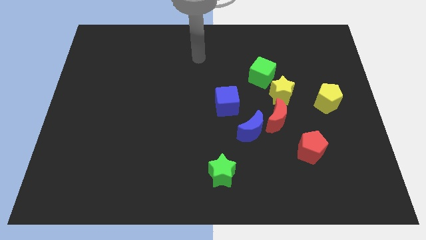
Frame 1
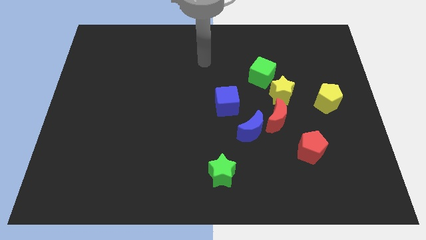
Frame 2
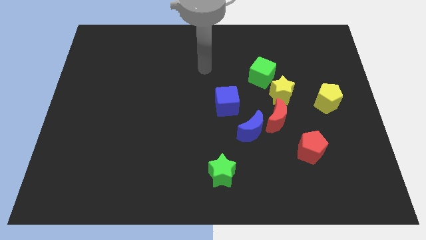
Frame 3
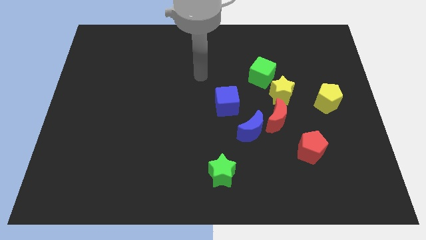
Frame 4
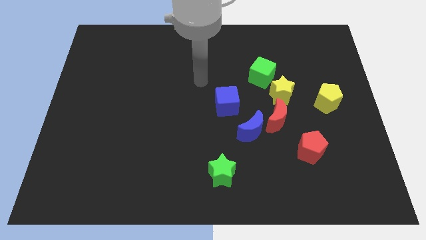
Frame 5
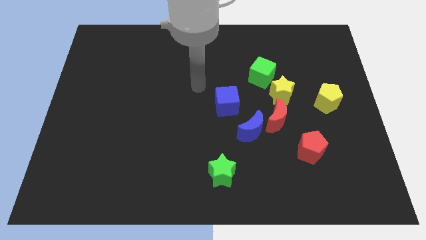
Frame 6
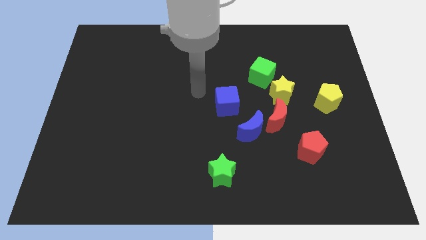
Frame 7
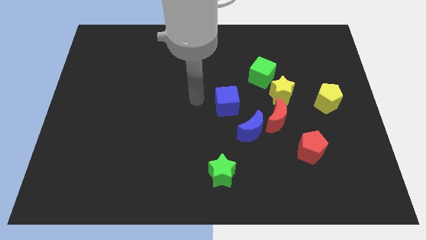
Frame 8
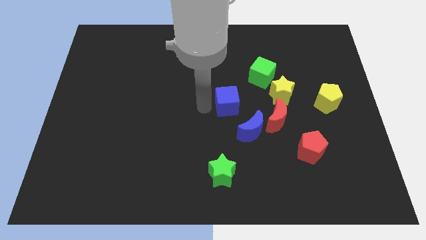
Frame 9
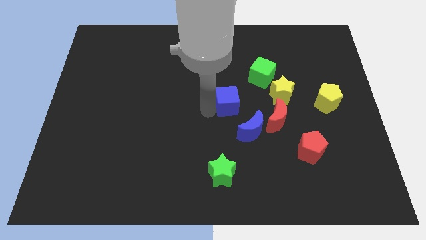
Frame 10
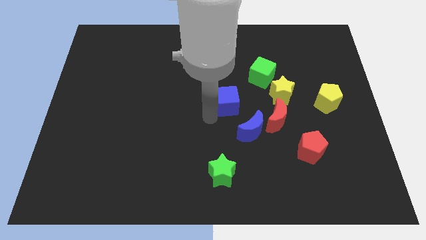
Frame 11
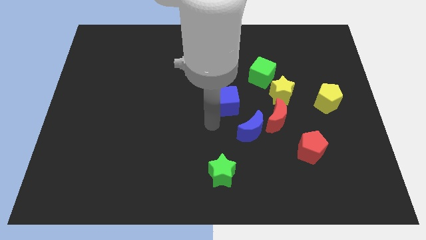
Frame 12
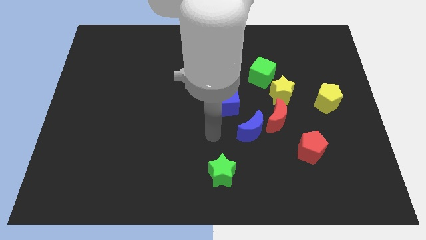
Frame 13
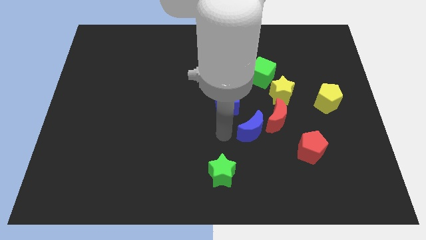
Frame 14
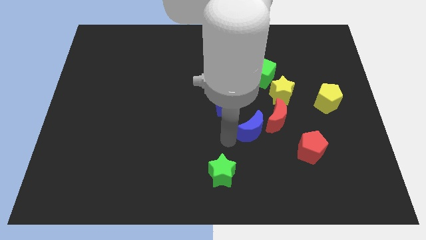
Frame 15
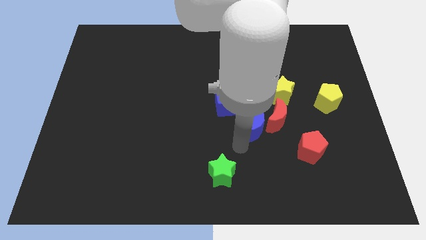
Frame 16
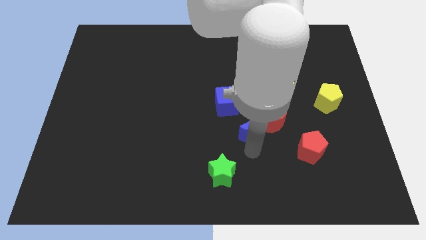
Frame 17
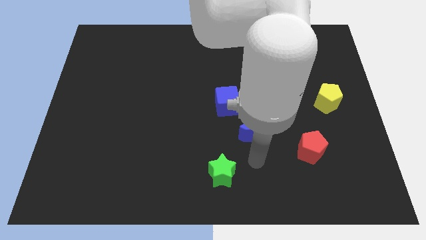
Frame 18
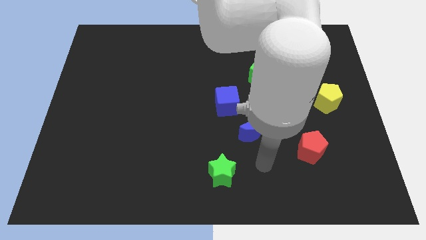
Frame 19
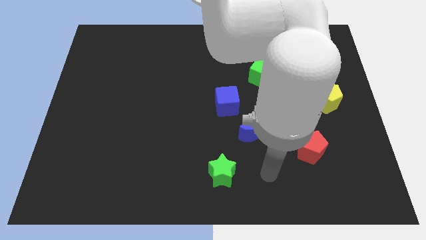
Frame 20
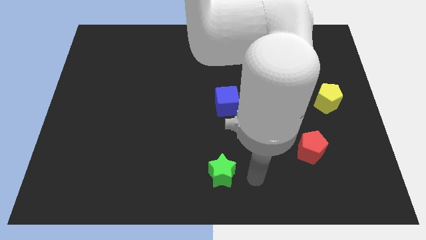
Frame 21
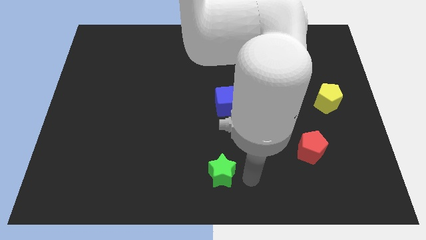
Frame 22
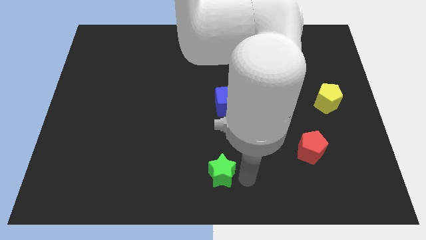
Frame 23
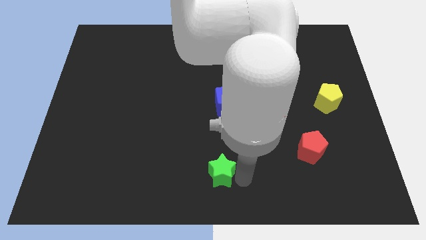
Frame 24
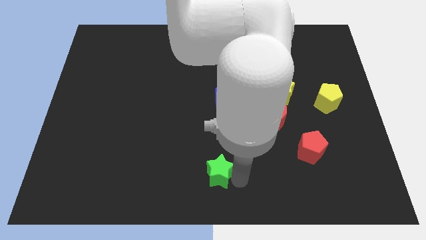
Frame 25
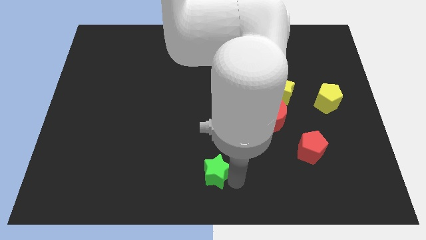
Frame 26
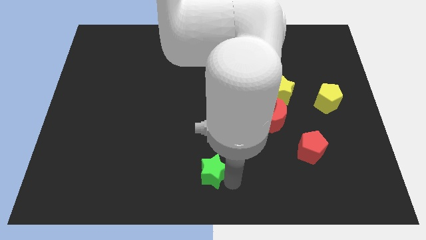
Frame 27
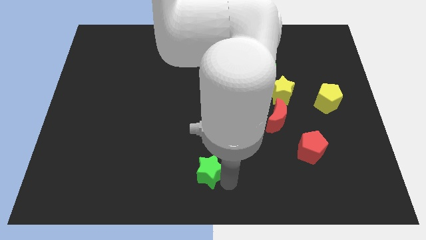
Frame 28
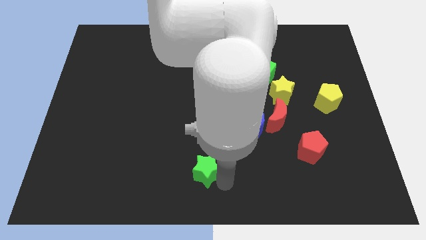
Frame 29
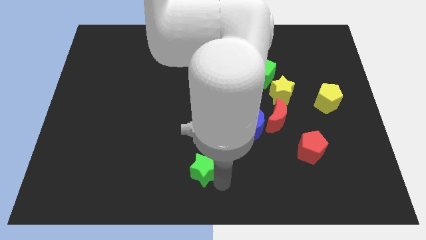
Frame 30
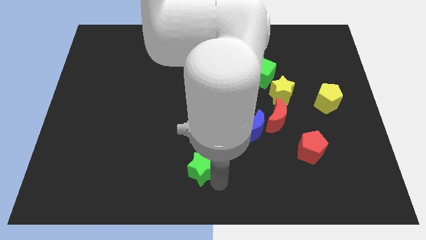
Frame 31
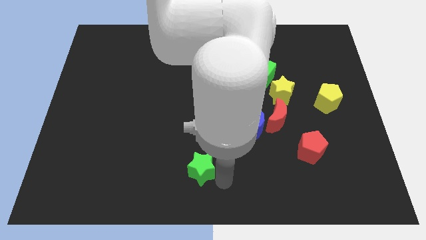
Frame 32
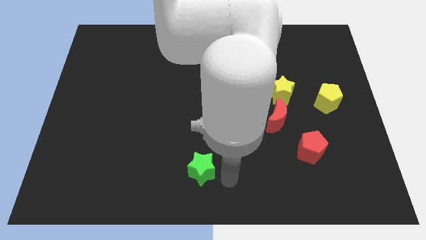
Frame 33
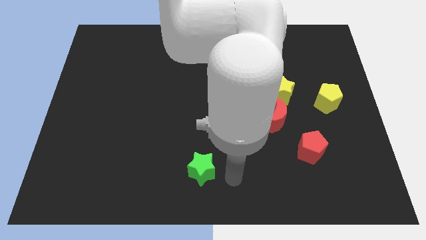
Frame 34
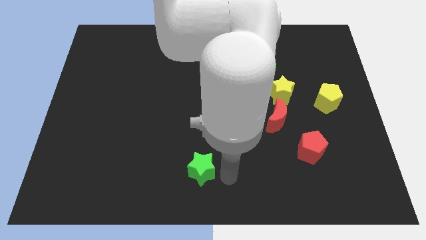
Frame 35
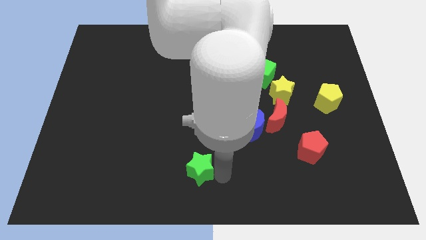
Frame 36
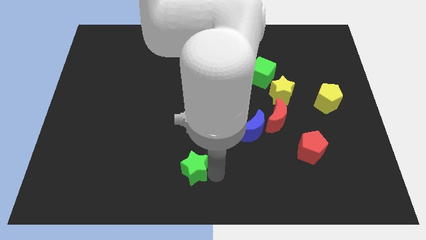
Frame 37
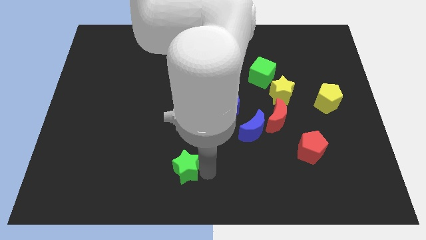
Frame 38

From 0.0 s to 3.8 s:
slide the green star slightly to the left

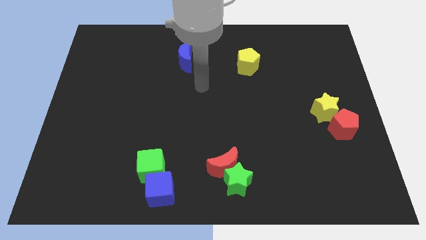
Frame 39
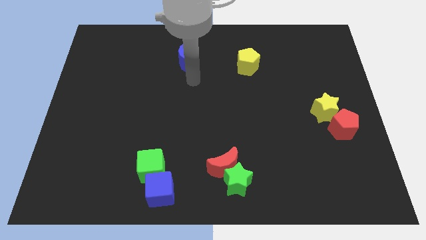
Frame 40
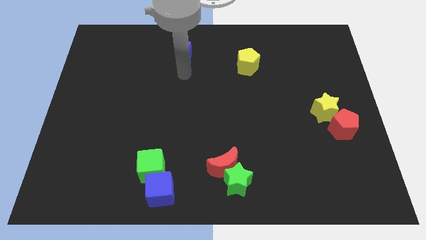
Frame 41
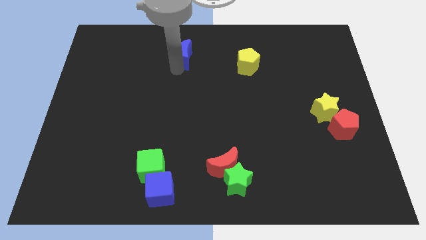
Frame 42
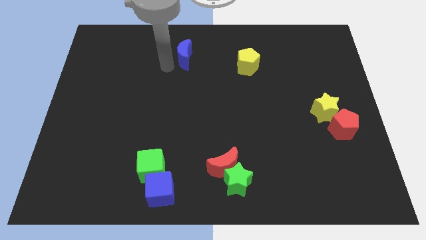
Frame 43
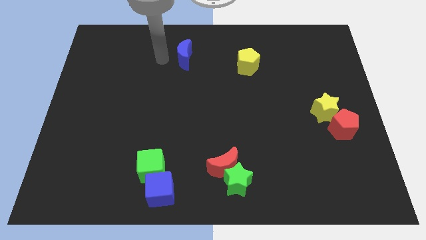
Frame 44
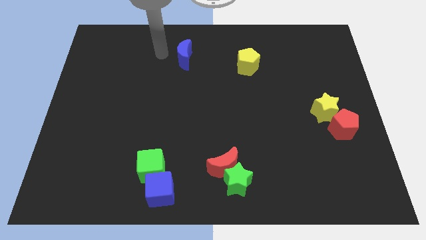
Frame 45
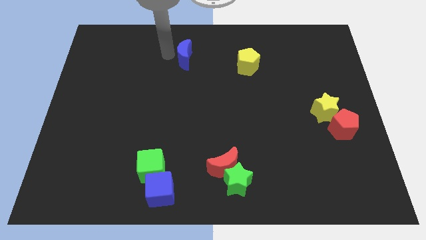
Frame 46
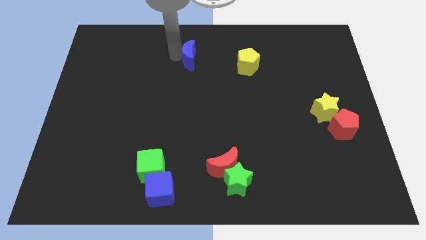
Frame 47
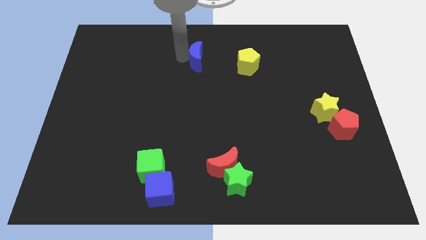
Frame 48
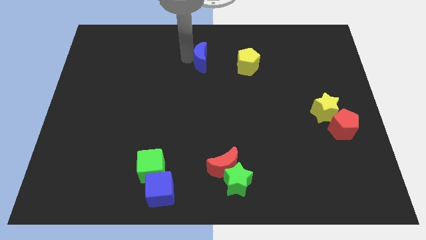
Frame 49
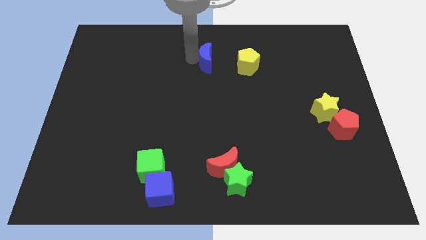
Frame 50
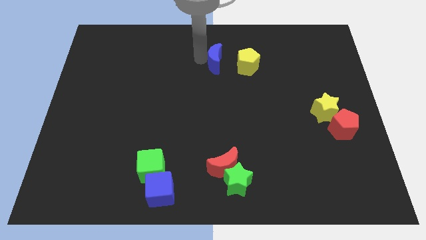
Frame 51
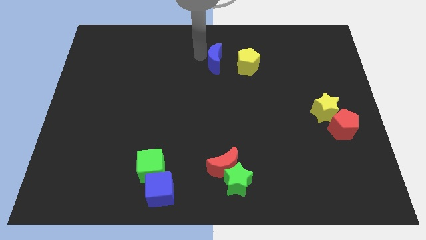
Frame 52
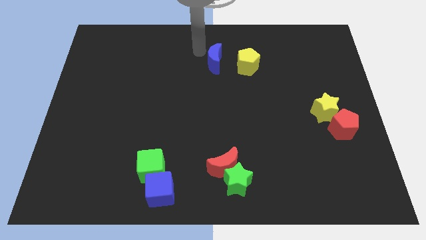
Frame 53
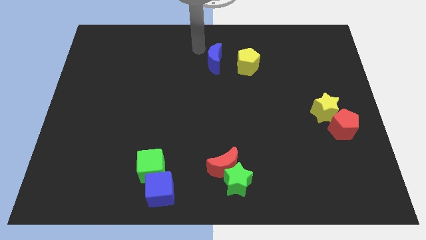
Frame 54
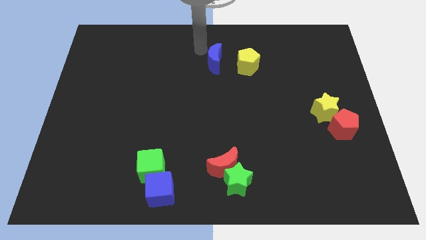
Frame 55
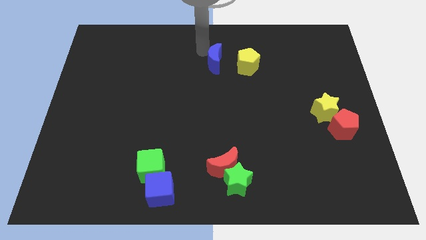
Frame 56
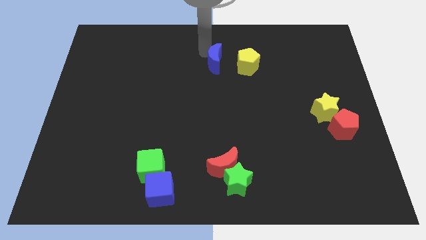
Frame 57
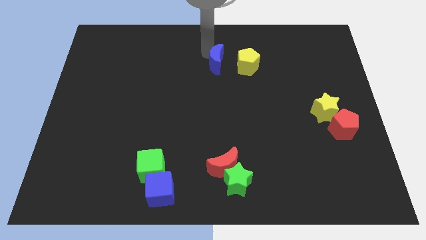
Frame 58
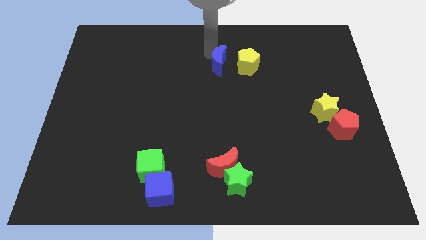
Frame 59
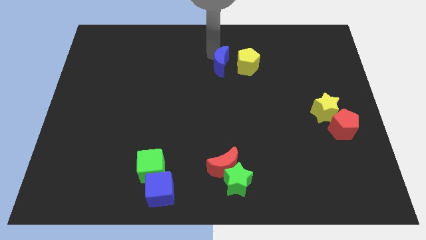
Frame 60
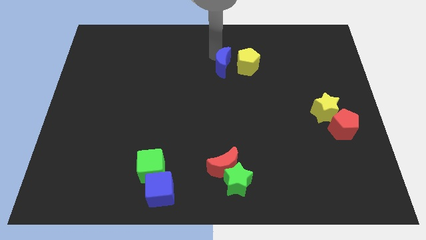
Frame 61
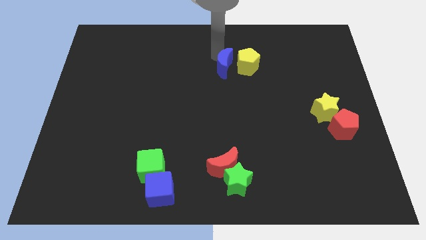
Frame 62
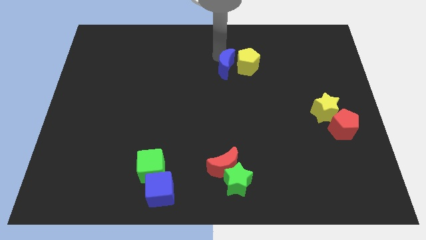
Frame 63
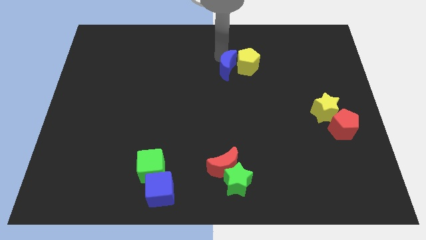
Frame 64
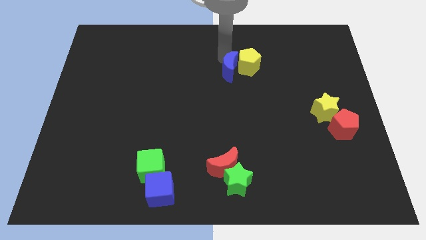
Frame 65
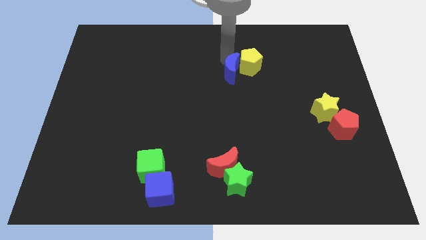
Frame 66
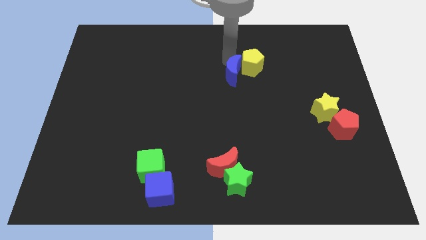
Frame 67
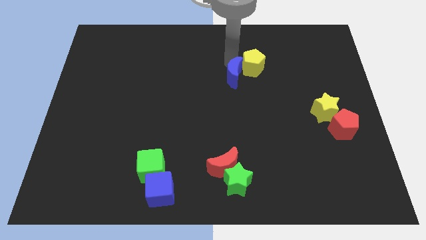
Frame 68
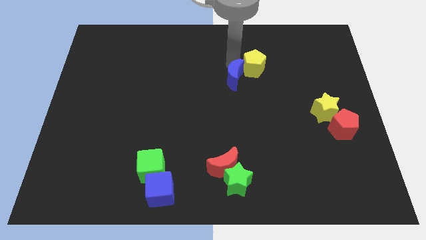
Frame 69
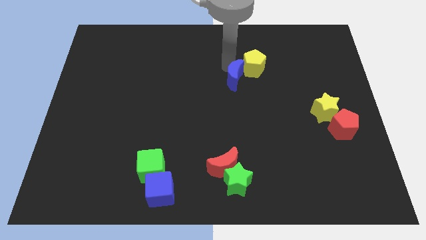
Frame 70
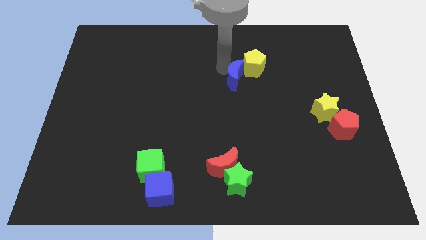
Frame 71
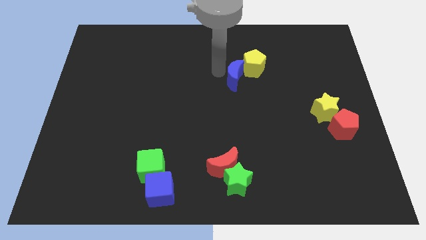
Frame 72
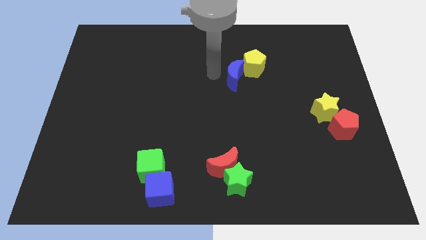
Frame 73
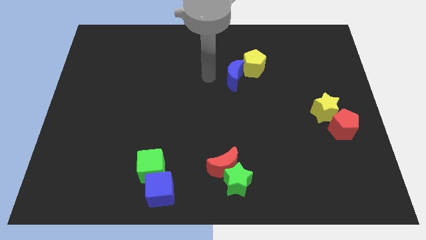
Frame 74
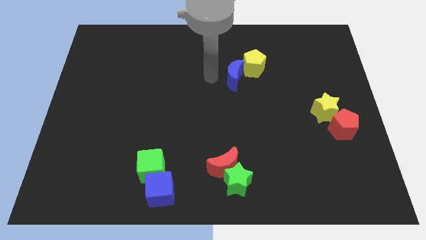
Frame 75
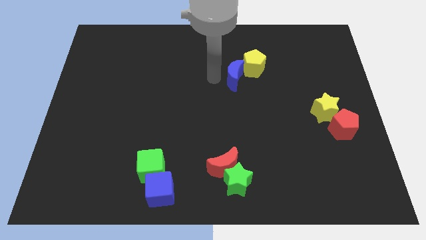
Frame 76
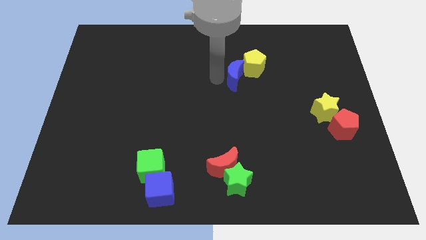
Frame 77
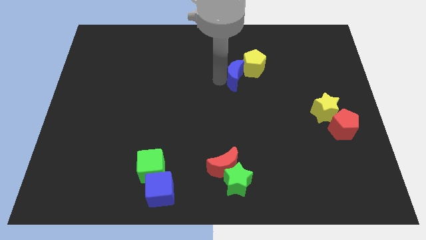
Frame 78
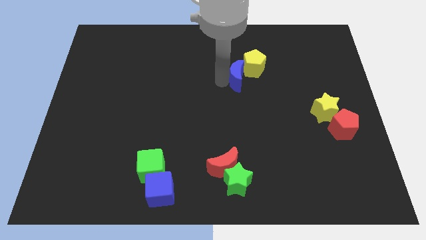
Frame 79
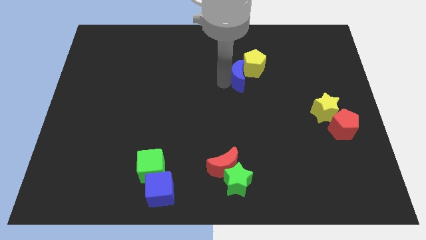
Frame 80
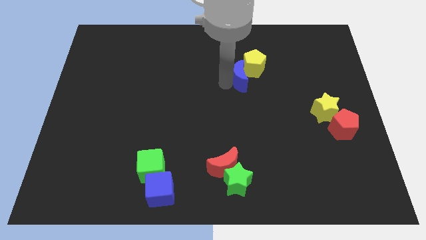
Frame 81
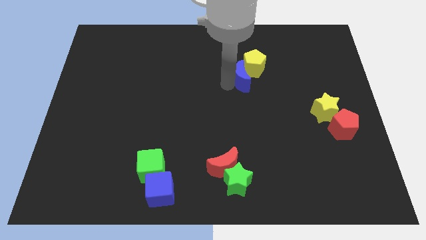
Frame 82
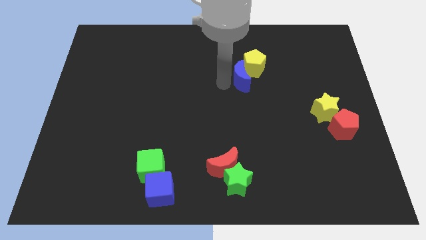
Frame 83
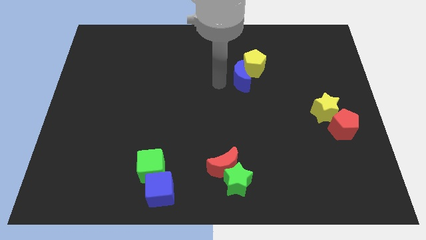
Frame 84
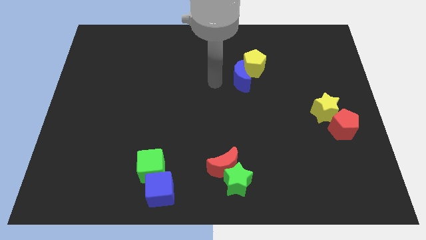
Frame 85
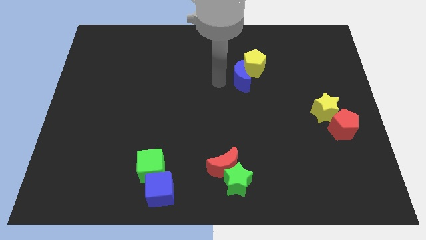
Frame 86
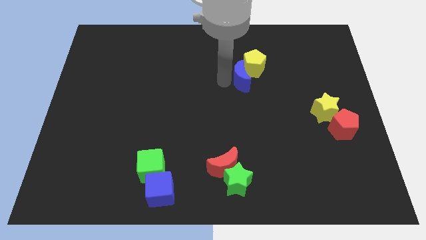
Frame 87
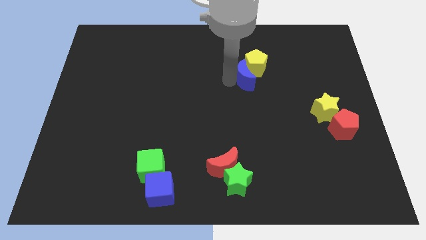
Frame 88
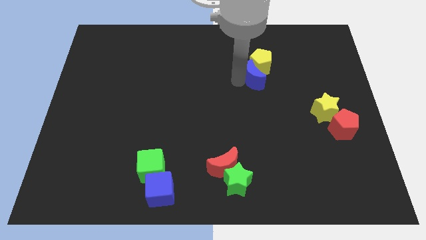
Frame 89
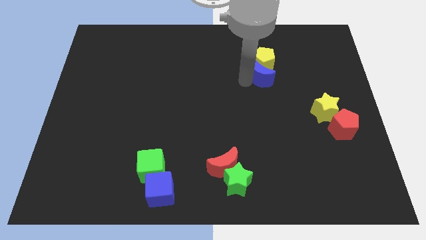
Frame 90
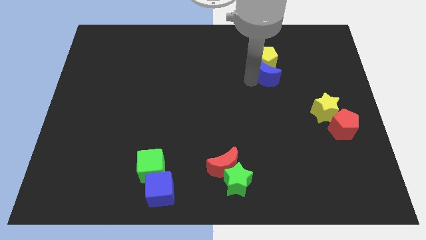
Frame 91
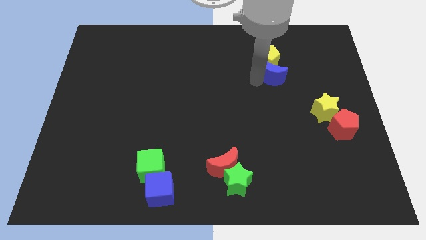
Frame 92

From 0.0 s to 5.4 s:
slide the blue moon to the right
